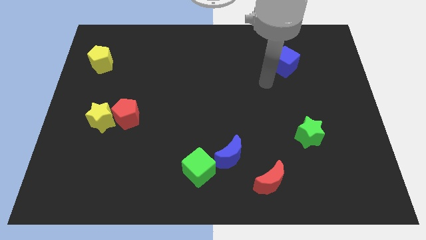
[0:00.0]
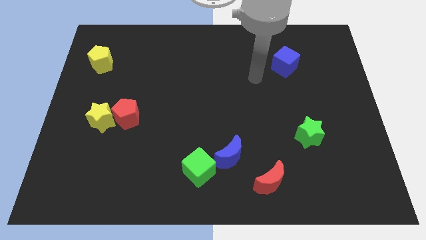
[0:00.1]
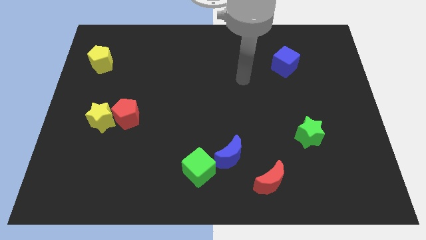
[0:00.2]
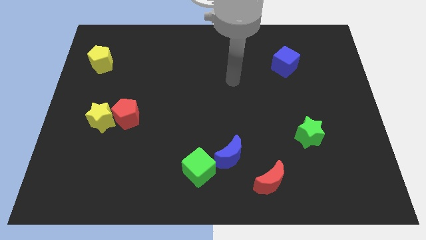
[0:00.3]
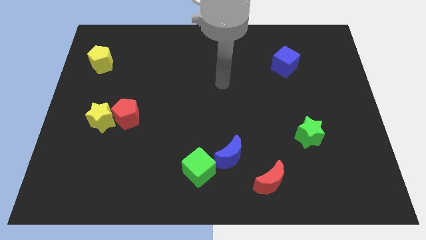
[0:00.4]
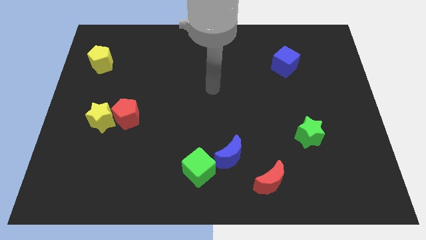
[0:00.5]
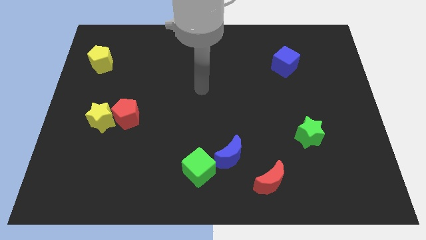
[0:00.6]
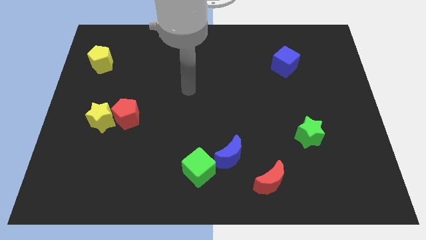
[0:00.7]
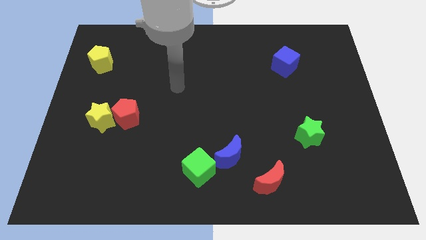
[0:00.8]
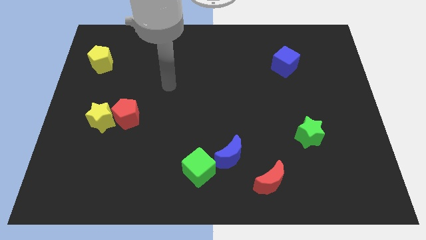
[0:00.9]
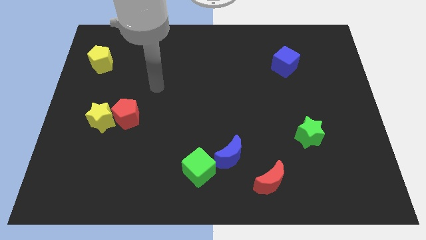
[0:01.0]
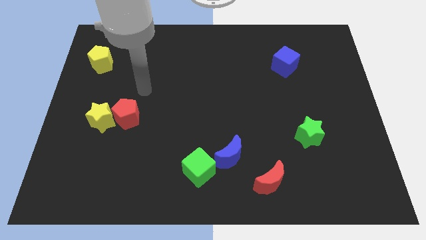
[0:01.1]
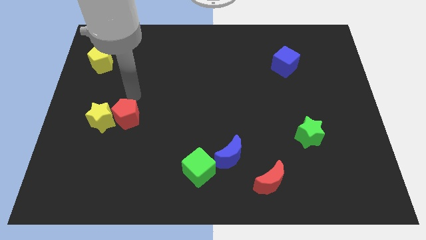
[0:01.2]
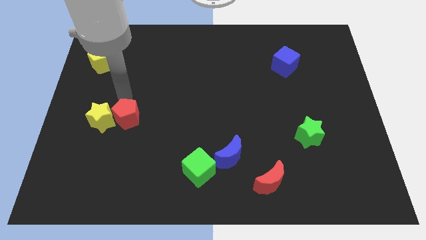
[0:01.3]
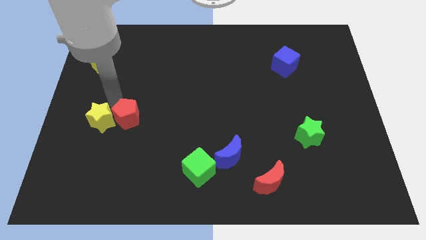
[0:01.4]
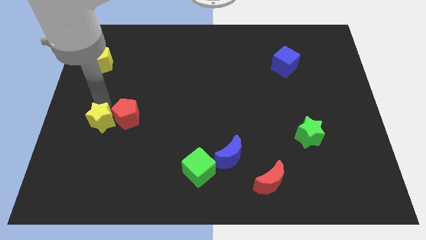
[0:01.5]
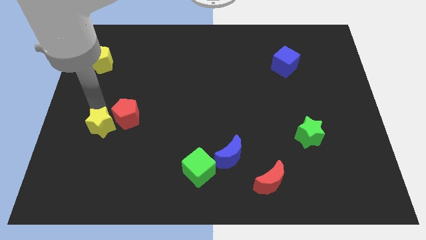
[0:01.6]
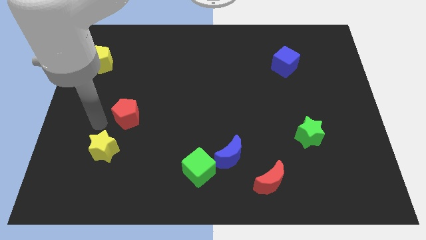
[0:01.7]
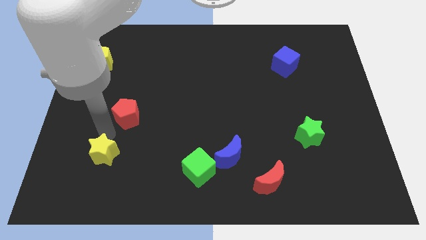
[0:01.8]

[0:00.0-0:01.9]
move the red pentagon away from the yellow star

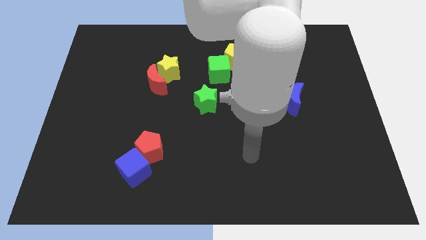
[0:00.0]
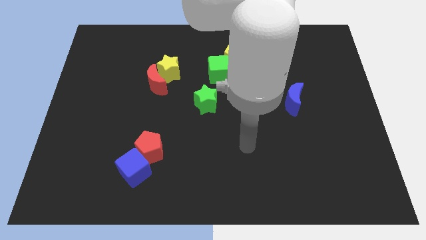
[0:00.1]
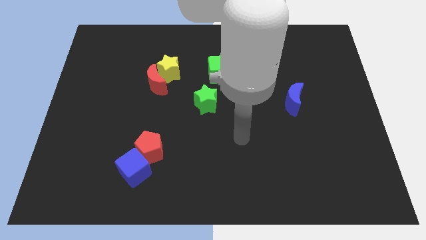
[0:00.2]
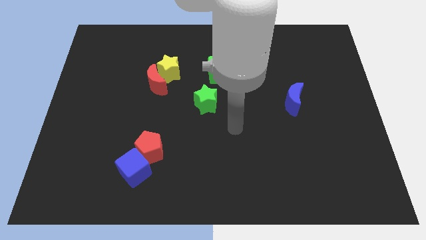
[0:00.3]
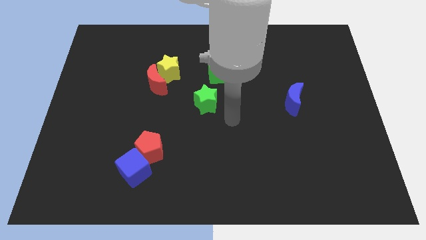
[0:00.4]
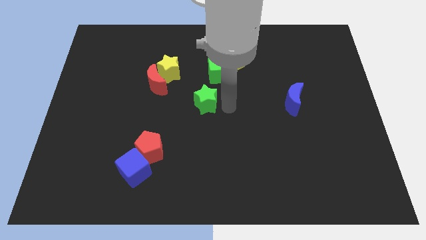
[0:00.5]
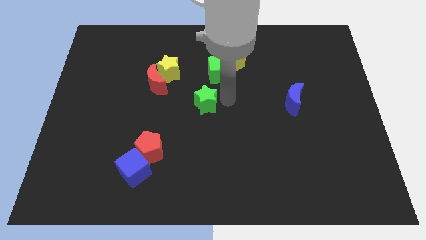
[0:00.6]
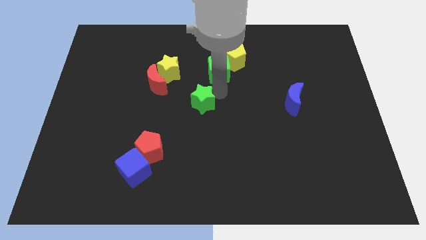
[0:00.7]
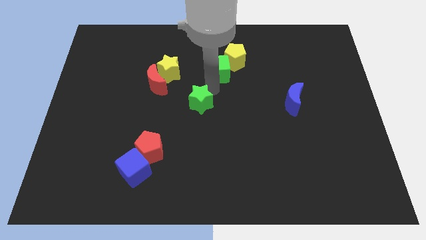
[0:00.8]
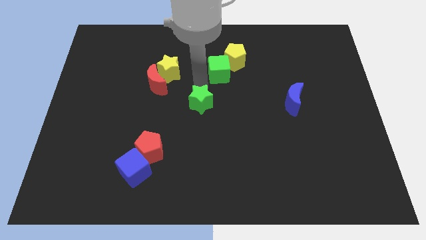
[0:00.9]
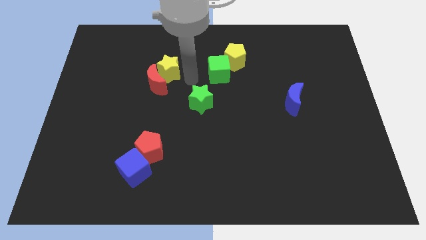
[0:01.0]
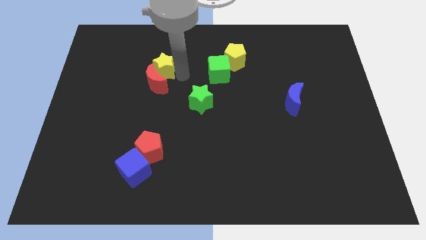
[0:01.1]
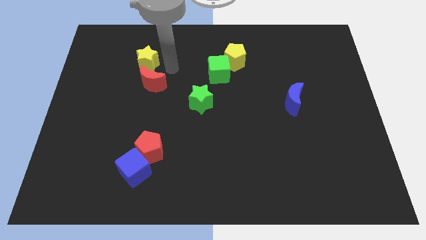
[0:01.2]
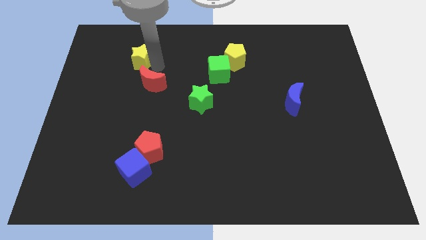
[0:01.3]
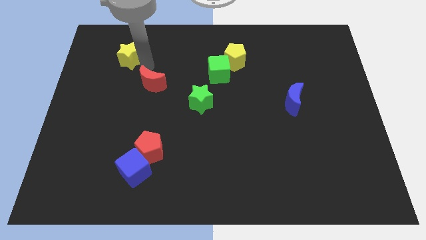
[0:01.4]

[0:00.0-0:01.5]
separate the red moon from the yellow star

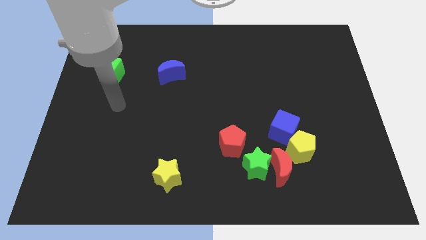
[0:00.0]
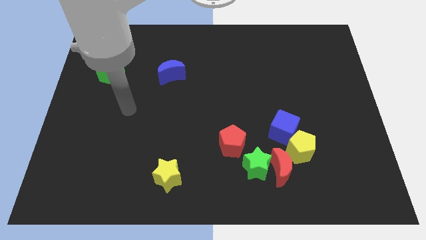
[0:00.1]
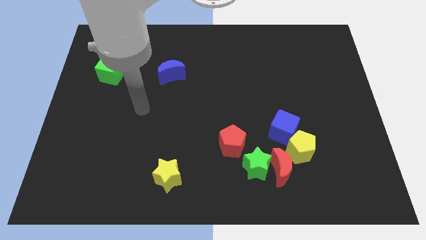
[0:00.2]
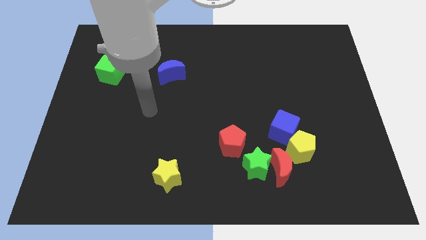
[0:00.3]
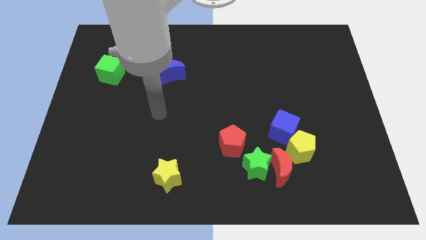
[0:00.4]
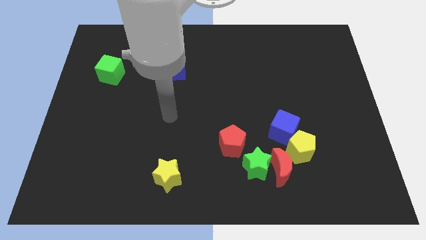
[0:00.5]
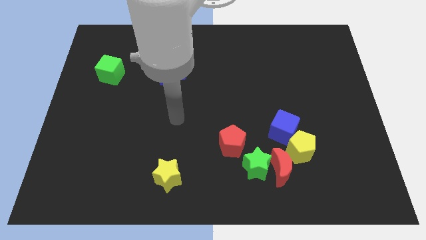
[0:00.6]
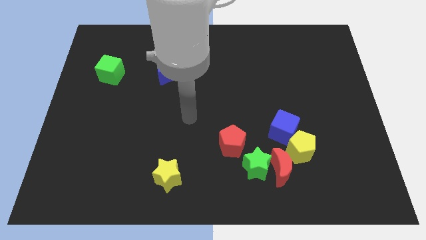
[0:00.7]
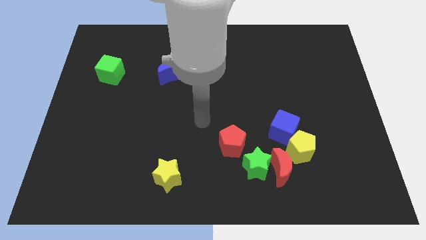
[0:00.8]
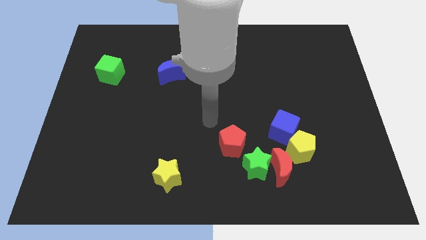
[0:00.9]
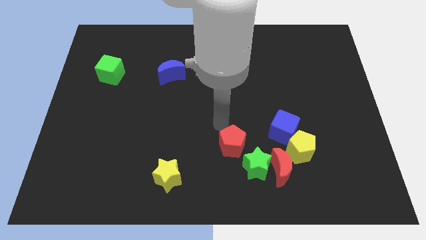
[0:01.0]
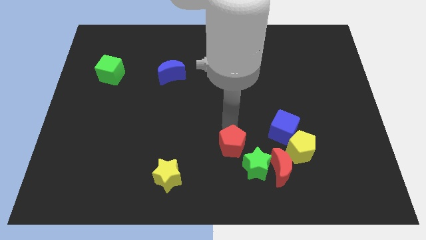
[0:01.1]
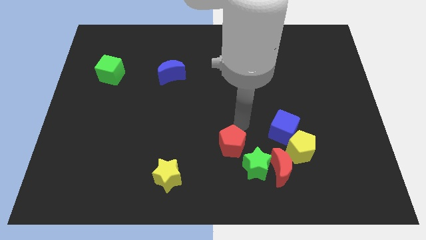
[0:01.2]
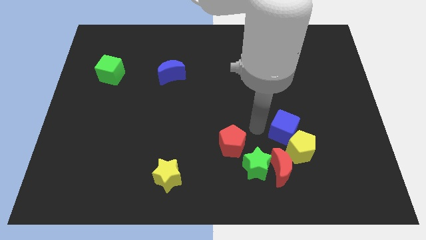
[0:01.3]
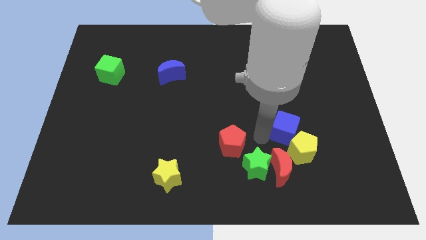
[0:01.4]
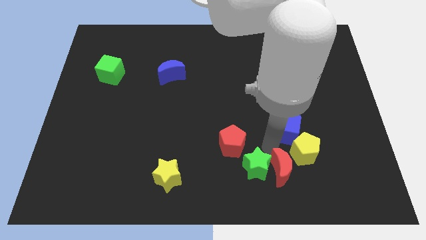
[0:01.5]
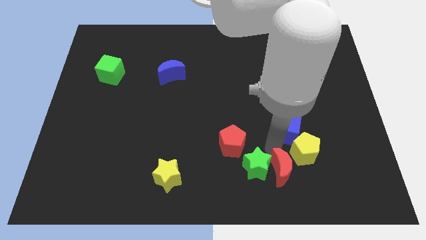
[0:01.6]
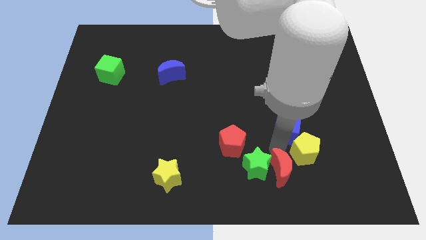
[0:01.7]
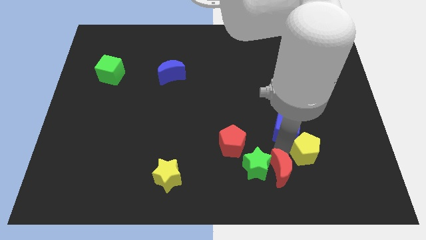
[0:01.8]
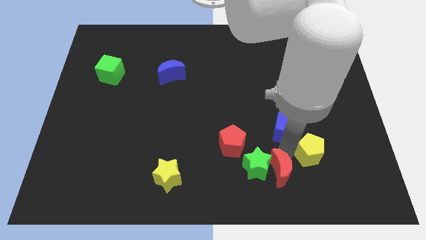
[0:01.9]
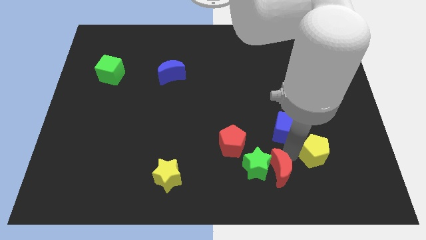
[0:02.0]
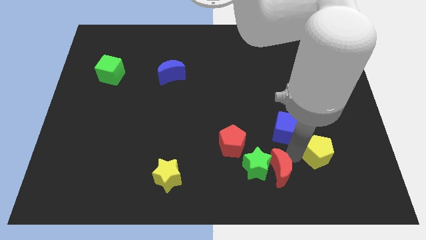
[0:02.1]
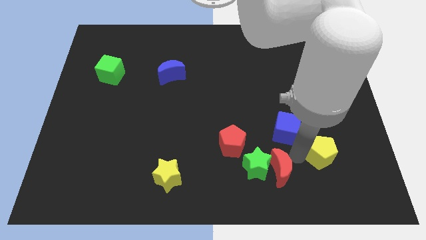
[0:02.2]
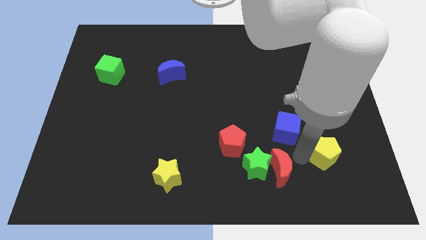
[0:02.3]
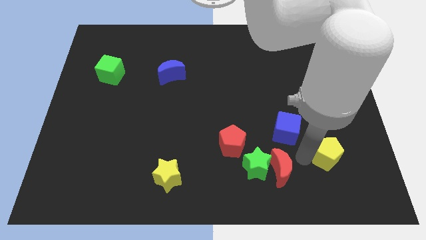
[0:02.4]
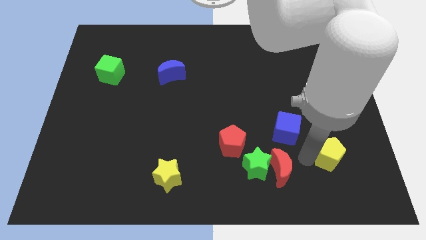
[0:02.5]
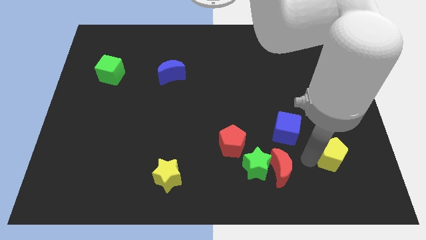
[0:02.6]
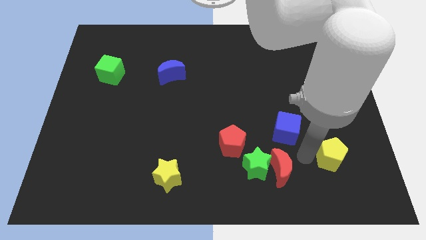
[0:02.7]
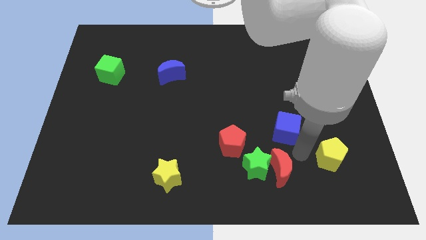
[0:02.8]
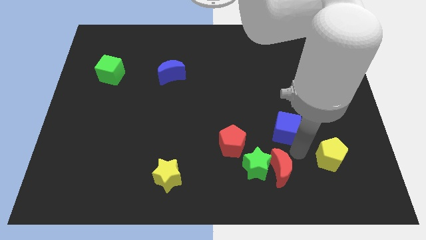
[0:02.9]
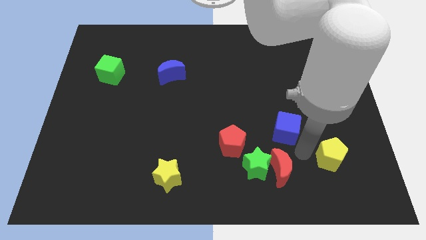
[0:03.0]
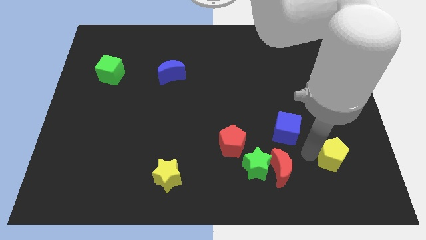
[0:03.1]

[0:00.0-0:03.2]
pull the yellow pentagon apart from the blue cube and red moon

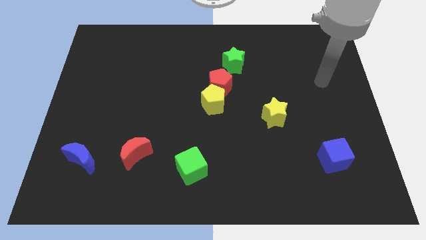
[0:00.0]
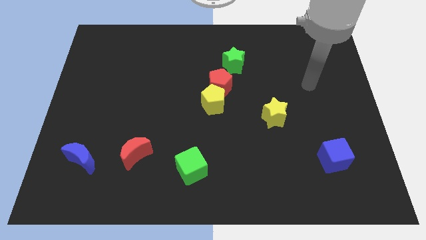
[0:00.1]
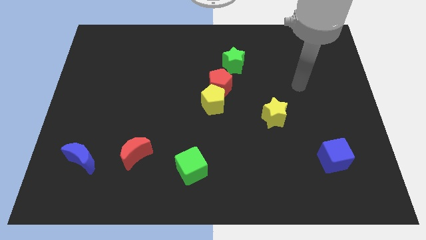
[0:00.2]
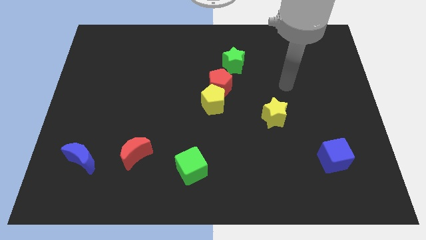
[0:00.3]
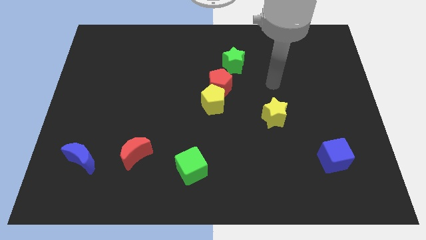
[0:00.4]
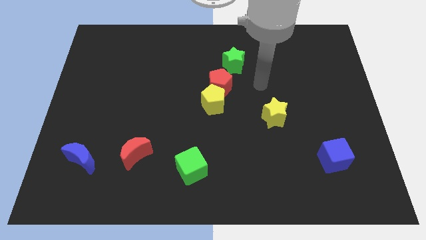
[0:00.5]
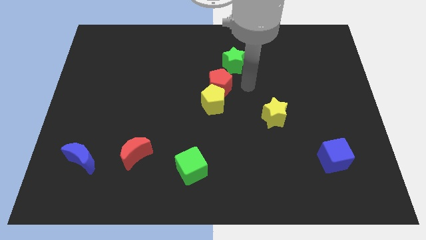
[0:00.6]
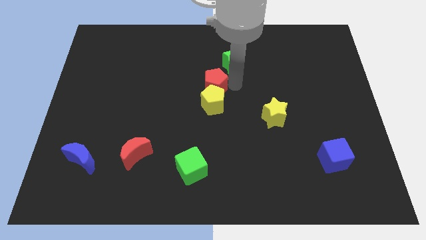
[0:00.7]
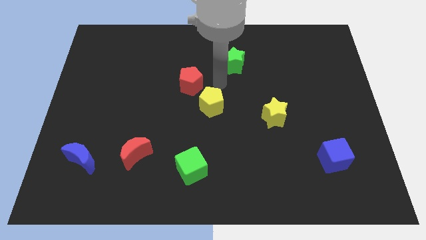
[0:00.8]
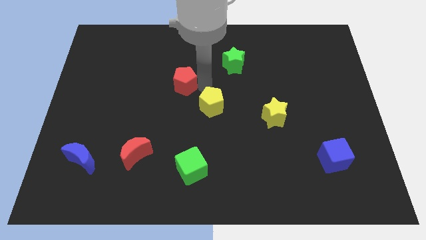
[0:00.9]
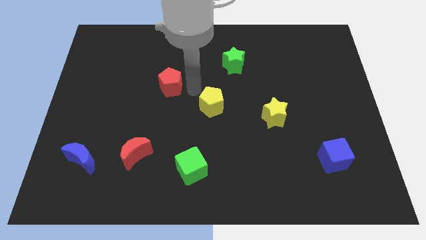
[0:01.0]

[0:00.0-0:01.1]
move the yellow pentagon away from the red pentagon

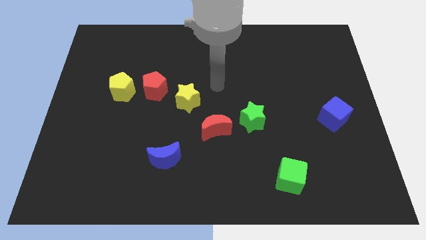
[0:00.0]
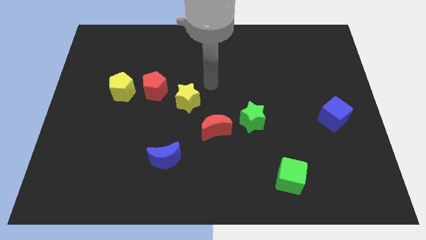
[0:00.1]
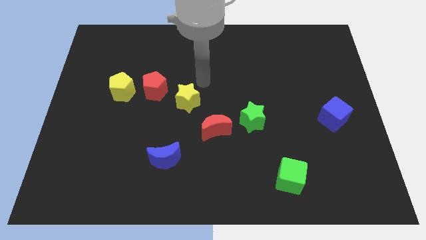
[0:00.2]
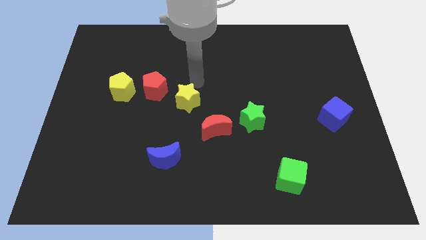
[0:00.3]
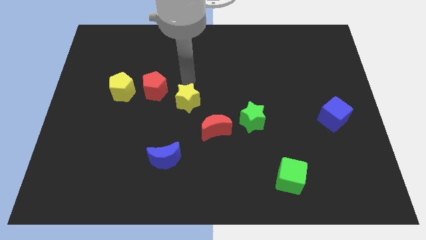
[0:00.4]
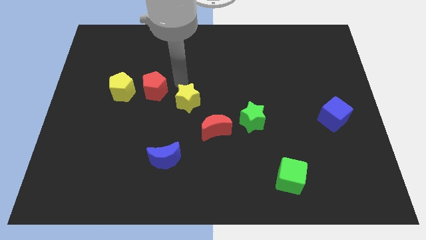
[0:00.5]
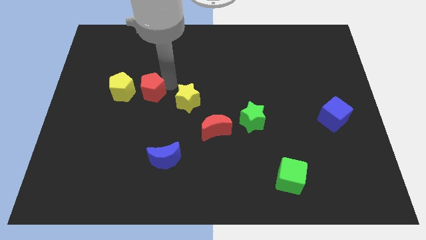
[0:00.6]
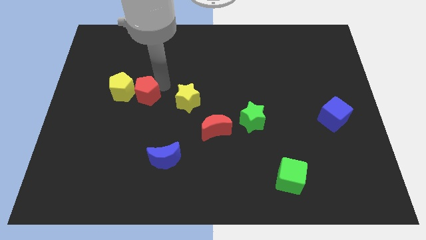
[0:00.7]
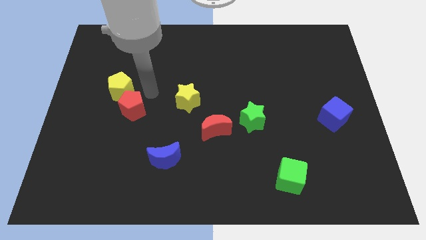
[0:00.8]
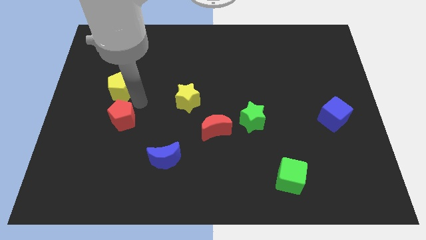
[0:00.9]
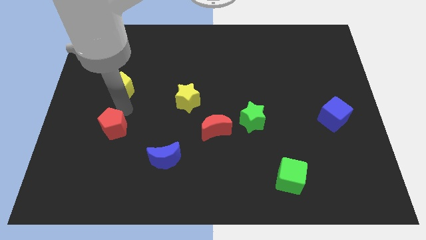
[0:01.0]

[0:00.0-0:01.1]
separate the yellow pentagon from the red pentagon

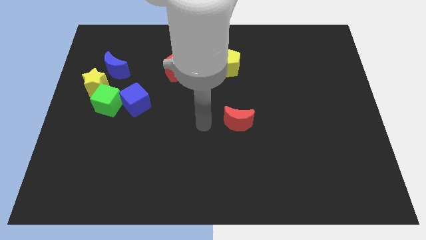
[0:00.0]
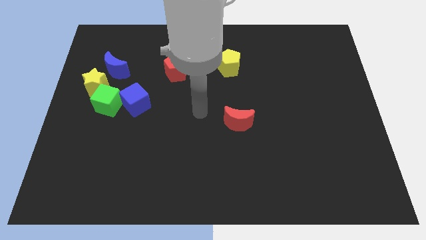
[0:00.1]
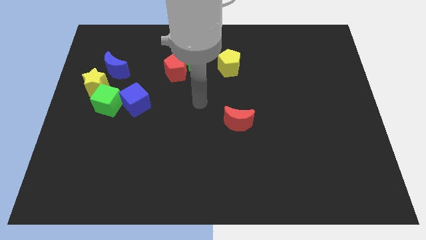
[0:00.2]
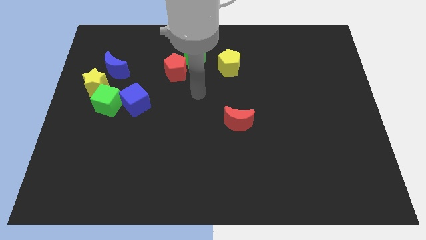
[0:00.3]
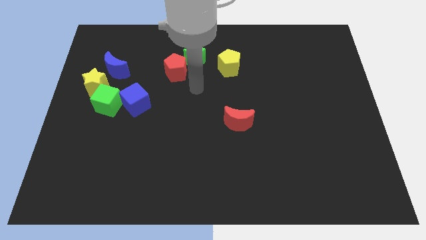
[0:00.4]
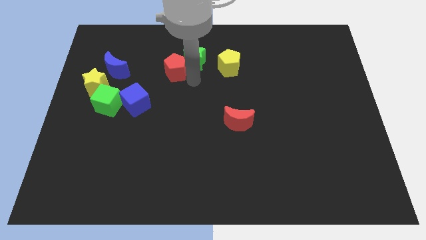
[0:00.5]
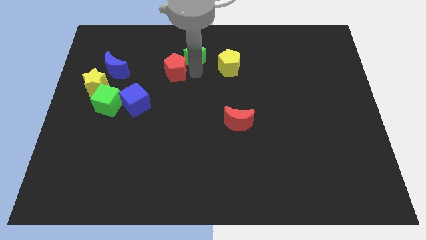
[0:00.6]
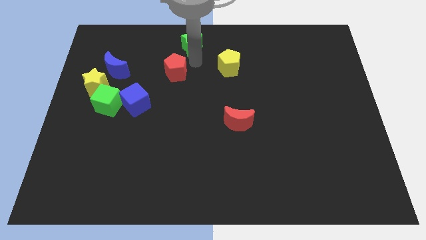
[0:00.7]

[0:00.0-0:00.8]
move the red pentagon away from the green star
